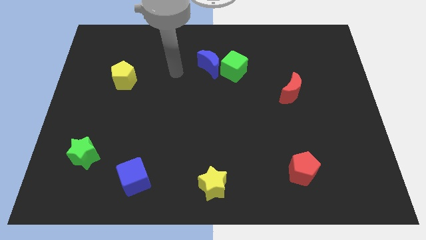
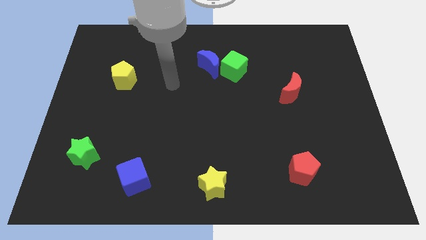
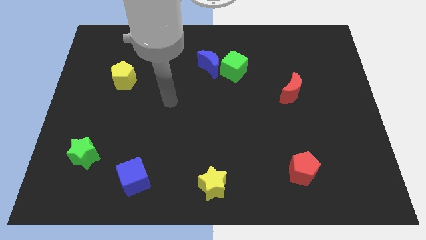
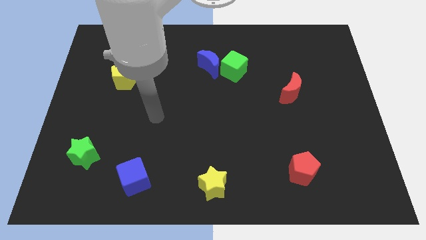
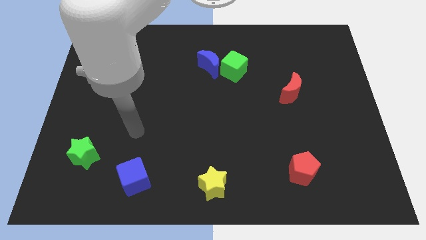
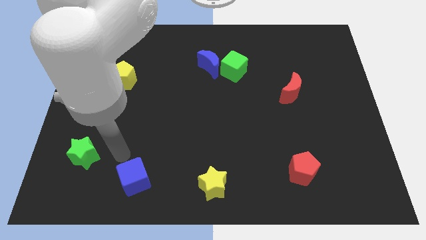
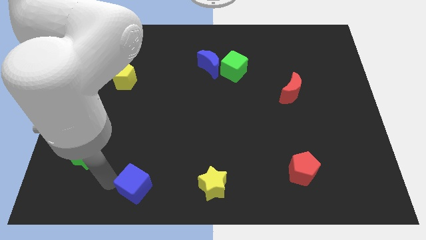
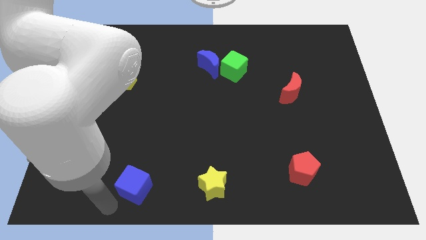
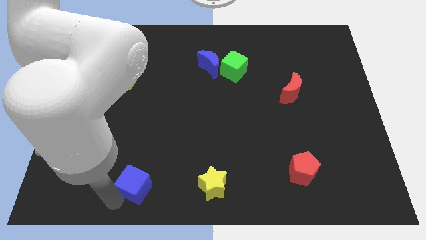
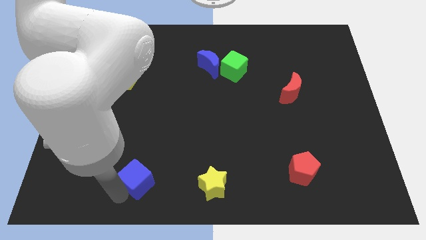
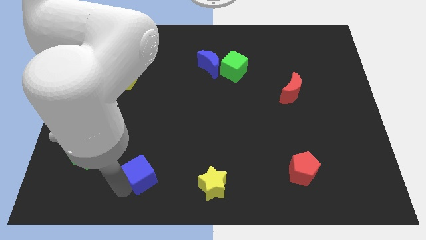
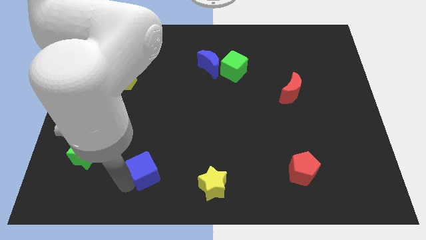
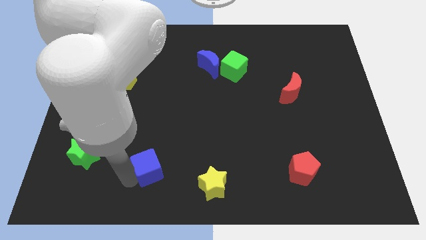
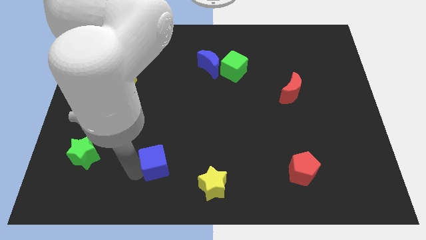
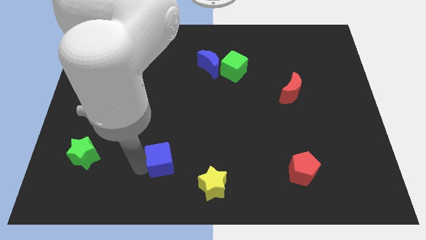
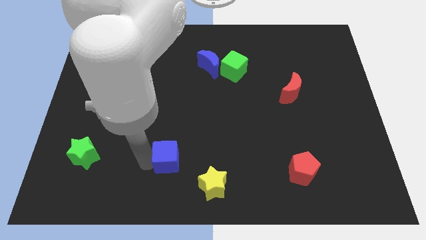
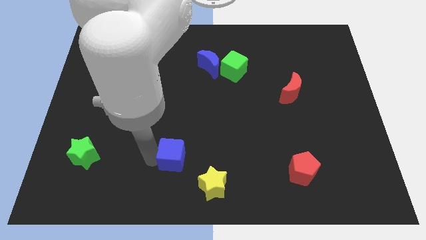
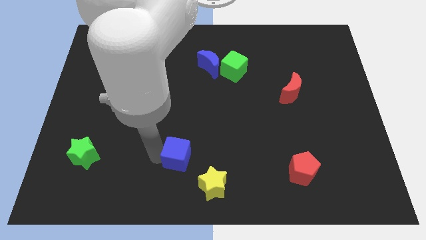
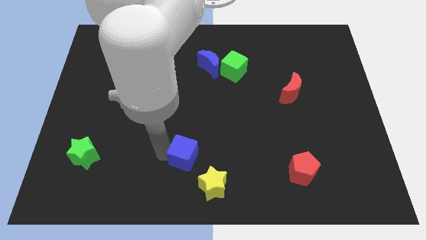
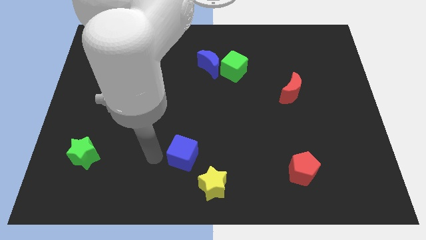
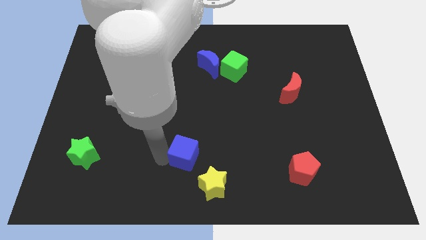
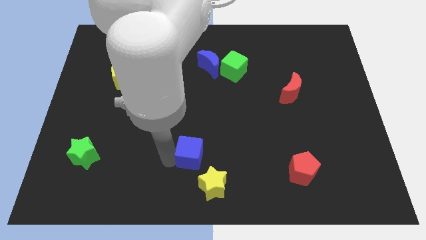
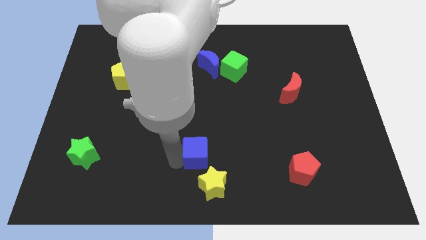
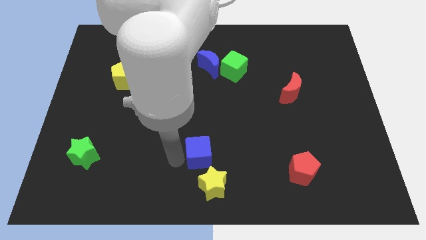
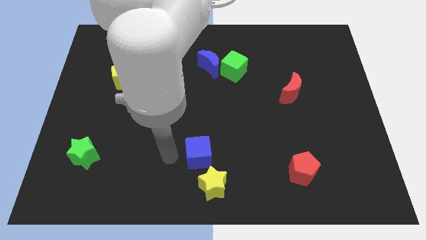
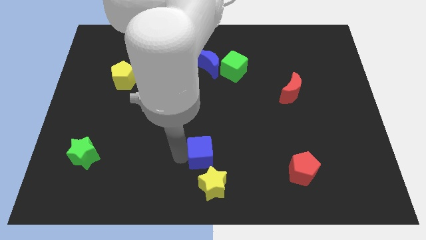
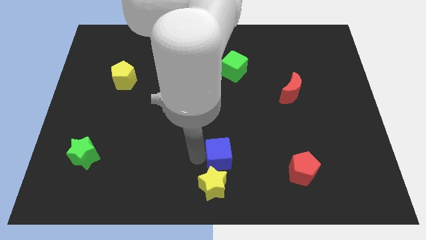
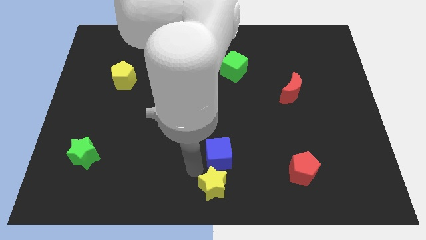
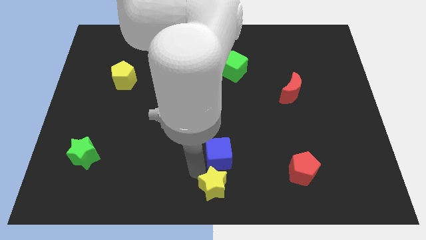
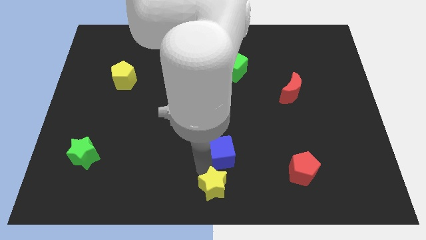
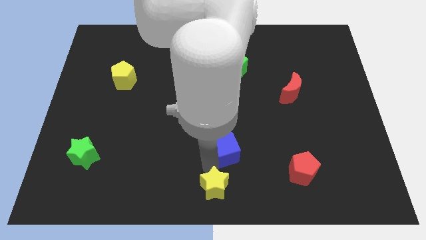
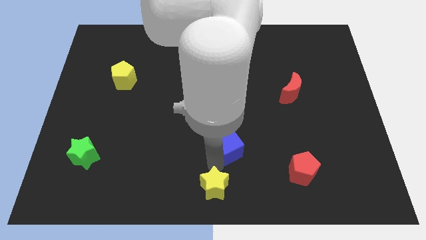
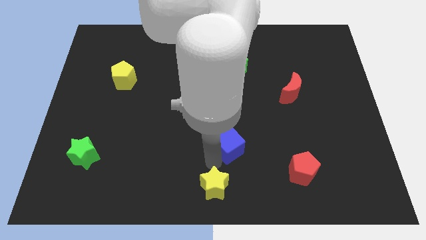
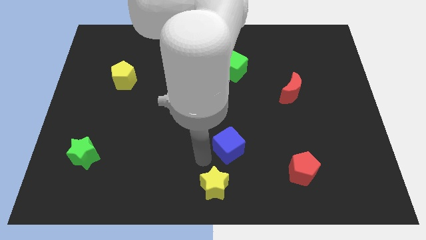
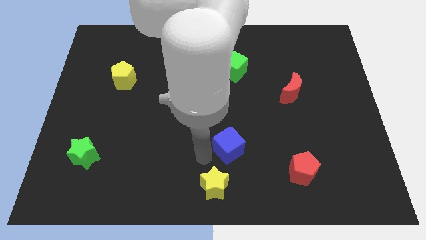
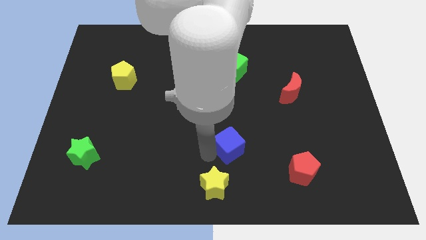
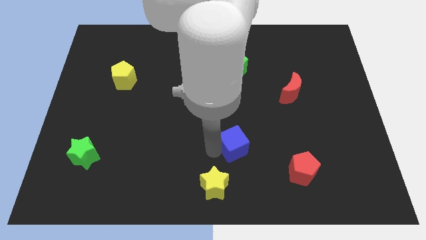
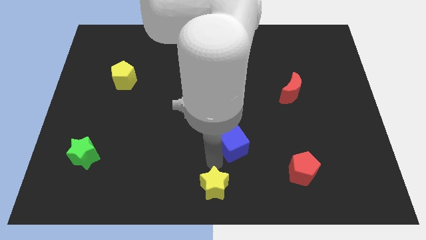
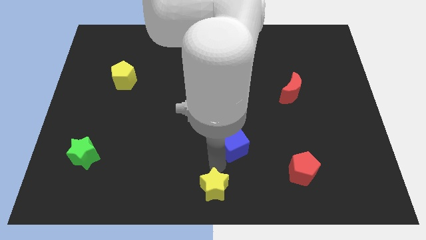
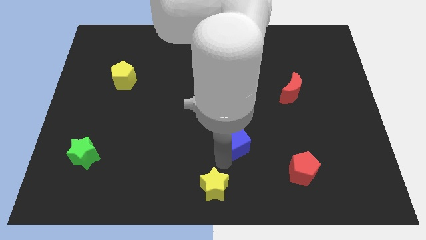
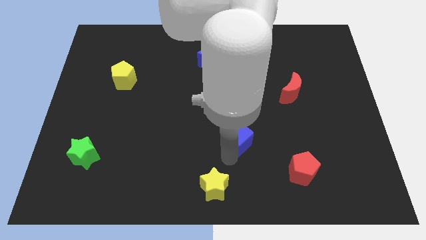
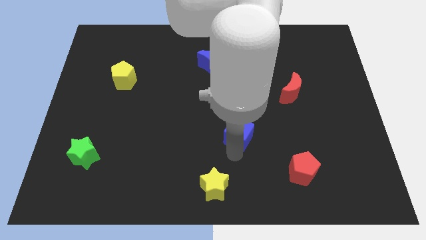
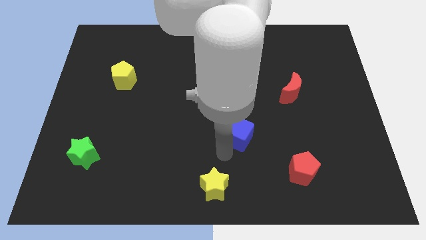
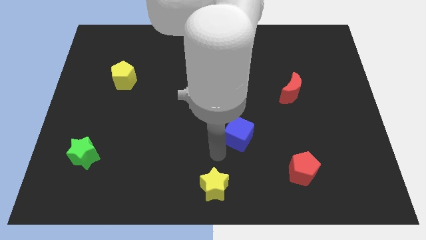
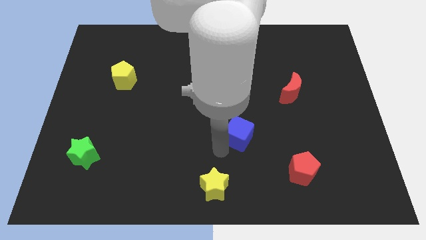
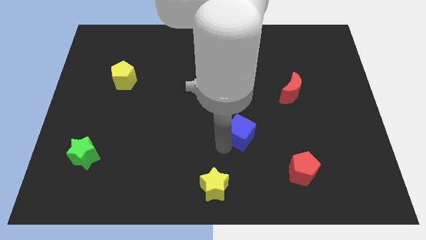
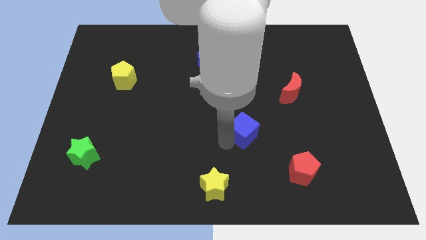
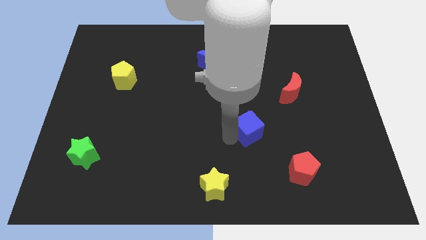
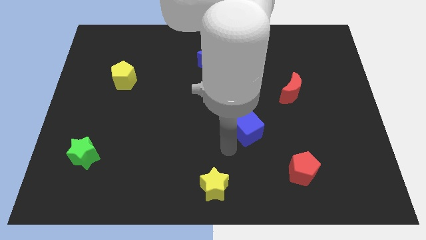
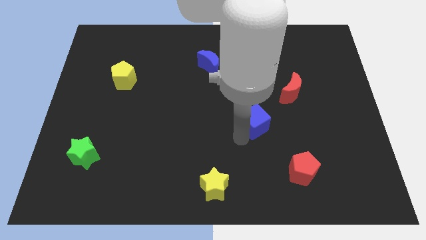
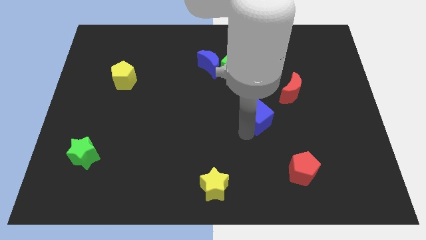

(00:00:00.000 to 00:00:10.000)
push the blue cube to the bottom left of the red moon

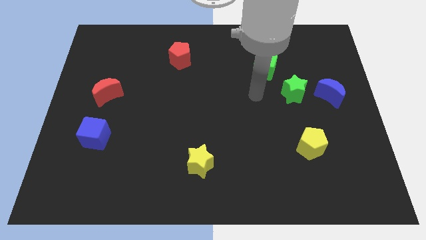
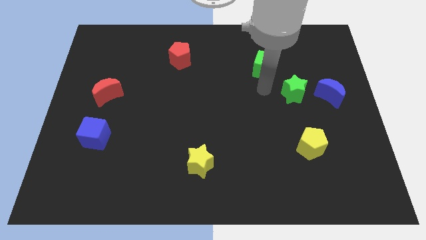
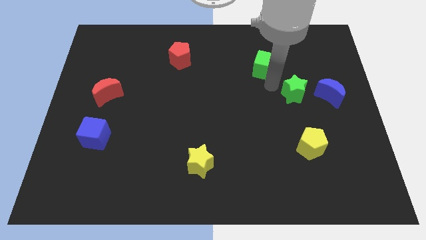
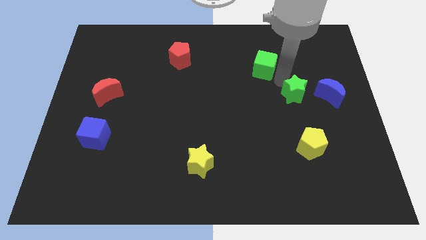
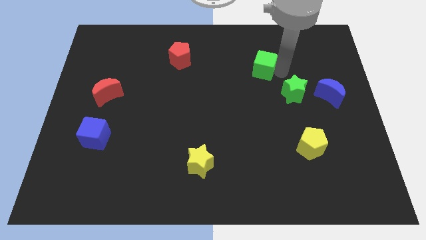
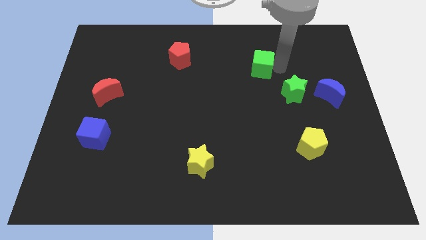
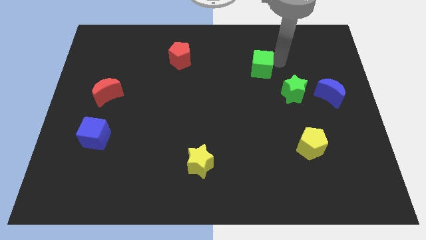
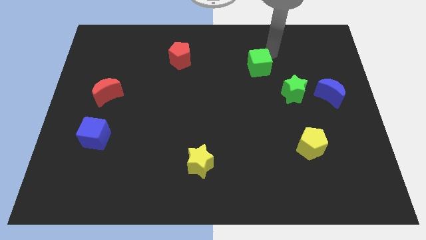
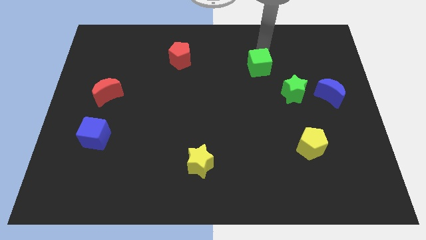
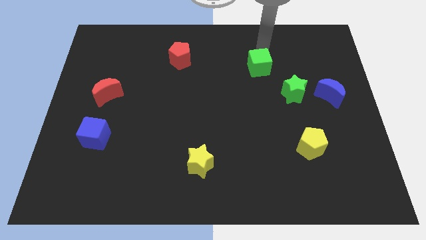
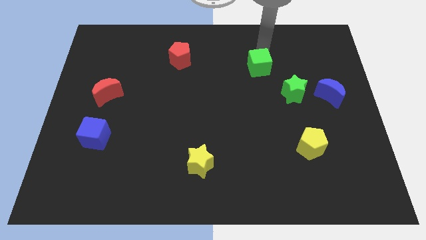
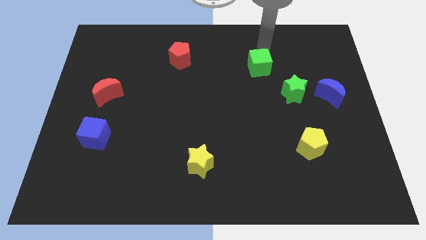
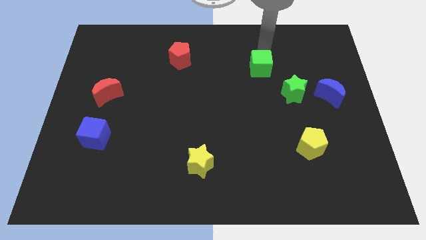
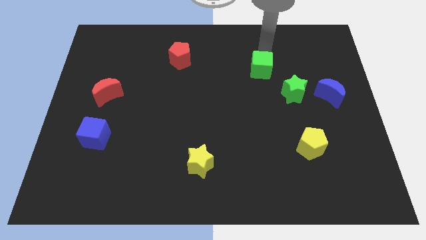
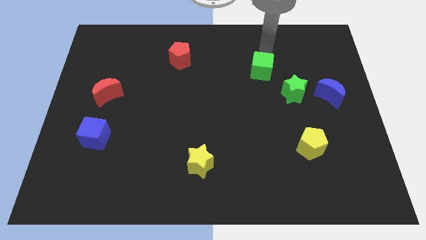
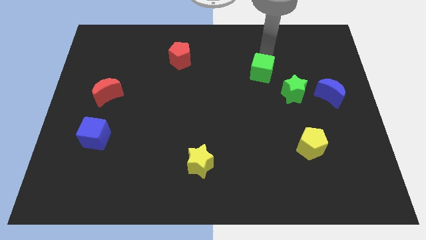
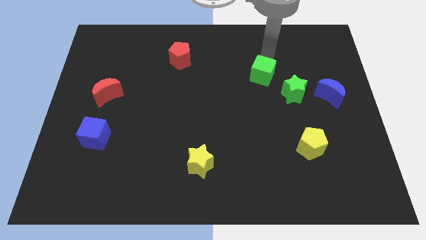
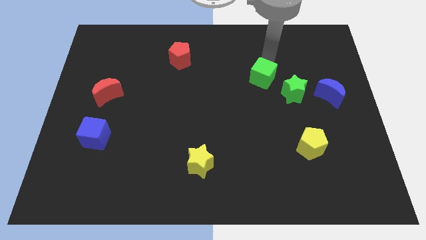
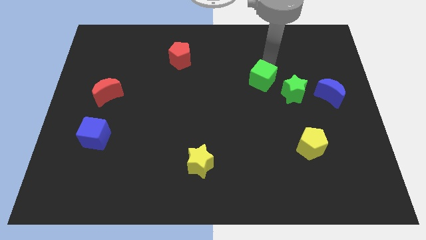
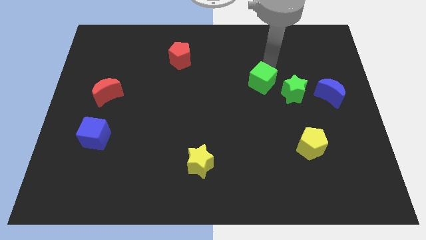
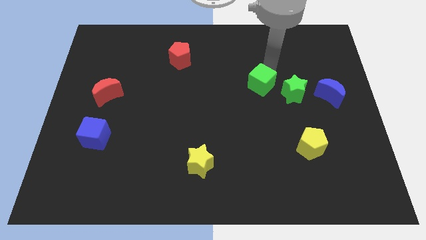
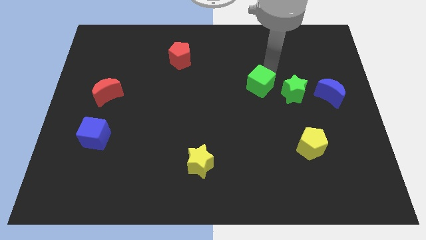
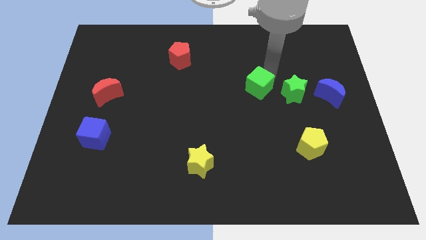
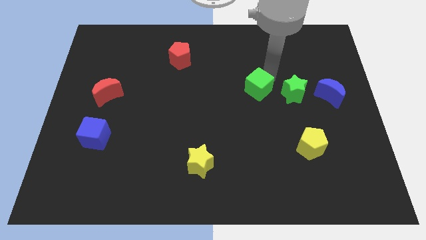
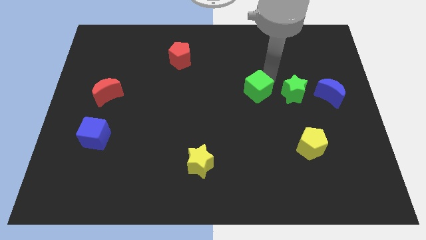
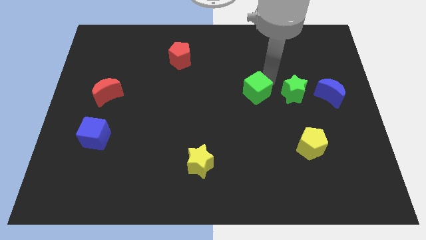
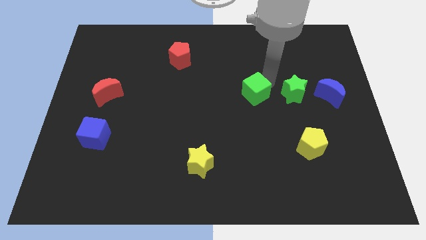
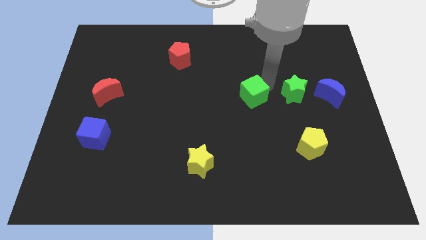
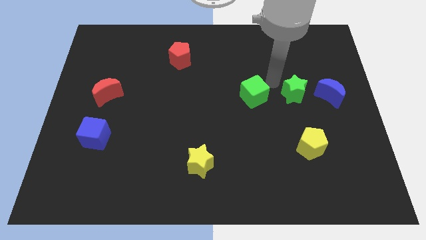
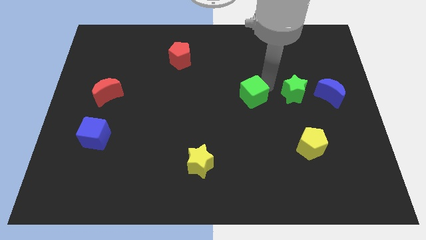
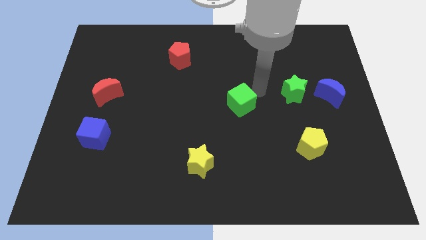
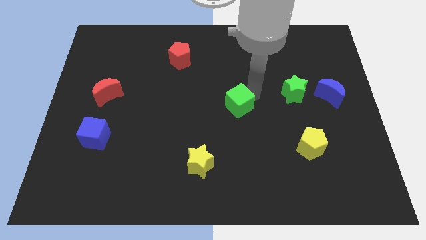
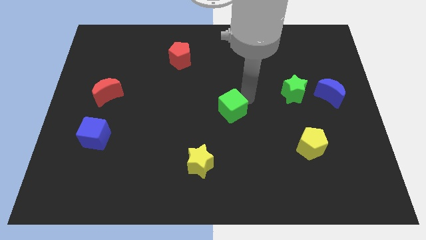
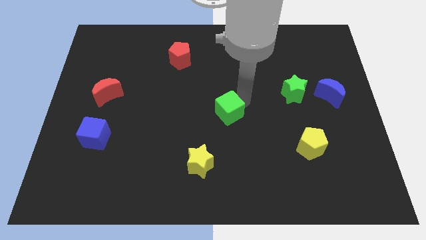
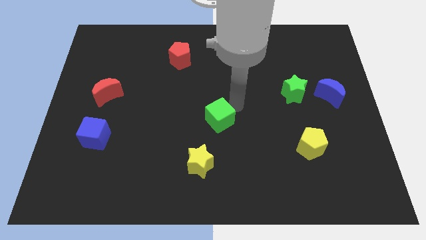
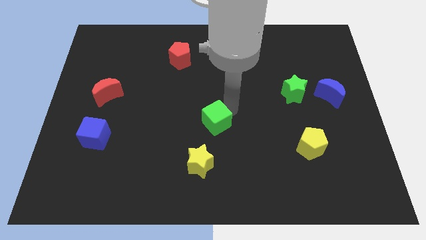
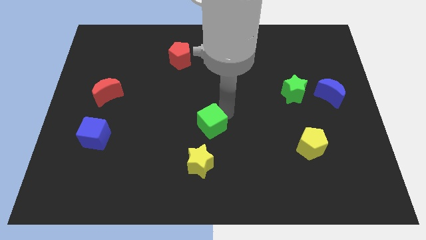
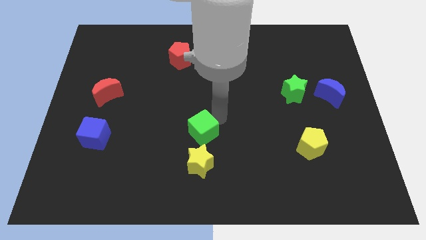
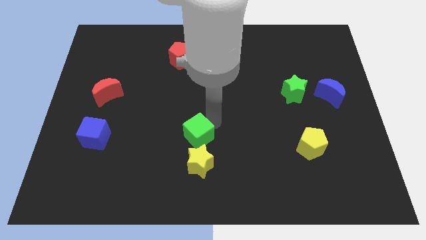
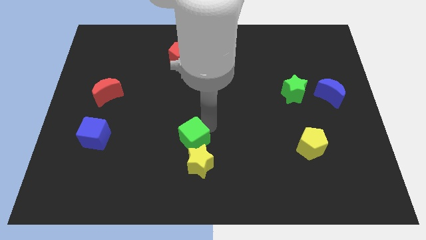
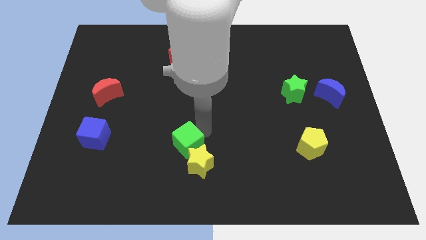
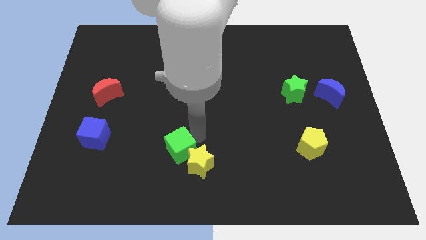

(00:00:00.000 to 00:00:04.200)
move the green cube left of the yellow star
